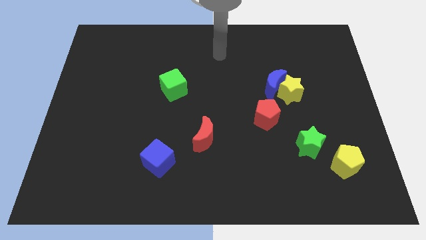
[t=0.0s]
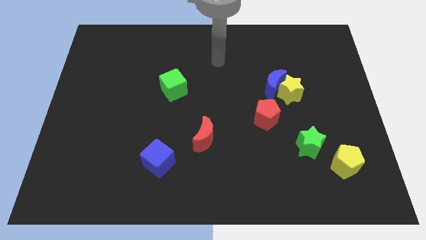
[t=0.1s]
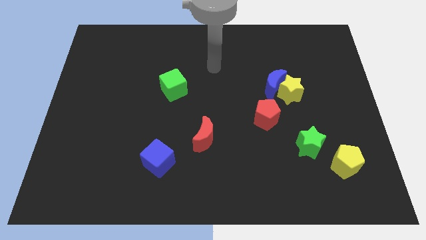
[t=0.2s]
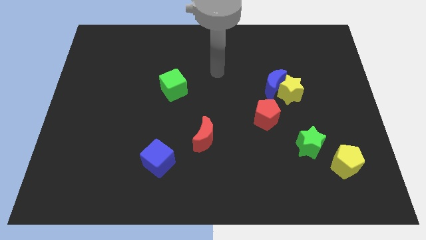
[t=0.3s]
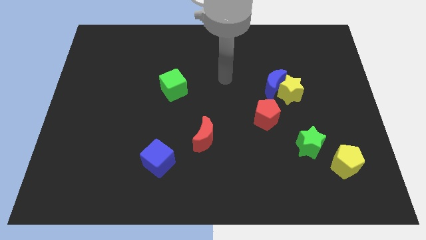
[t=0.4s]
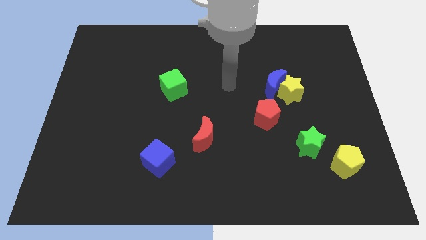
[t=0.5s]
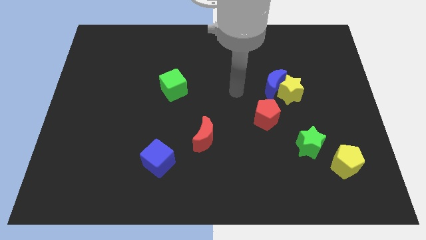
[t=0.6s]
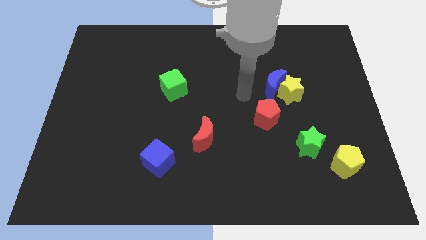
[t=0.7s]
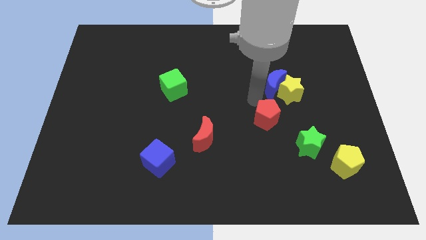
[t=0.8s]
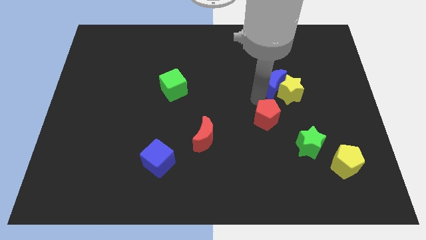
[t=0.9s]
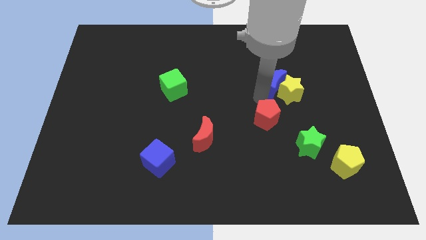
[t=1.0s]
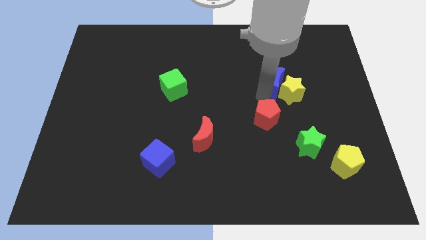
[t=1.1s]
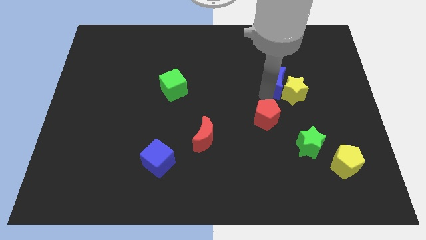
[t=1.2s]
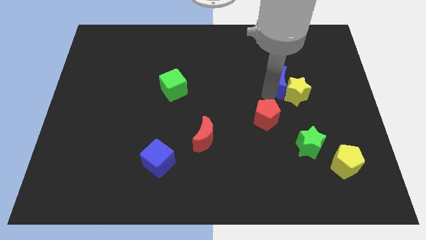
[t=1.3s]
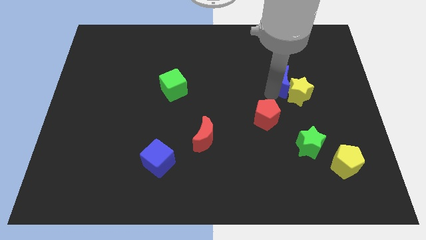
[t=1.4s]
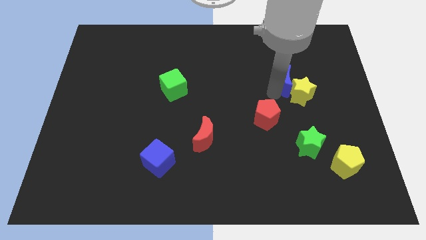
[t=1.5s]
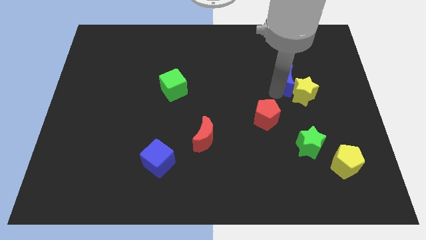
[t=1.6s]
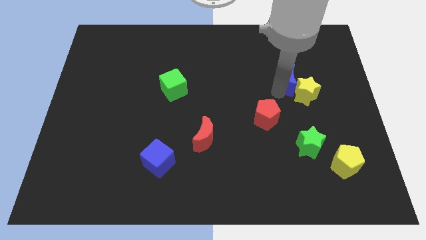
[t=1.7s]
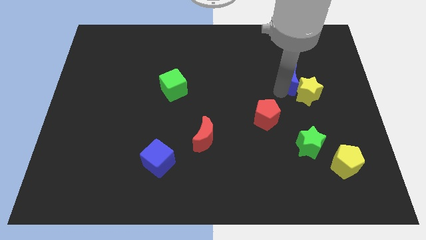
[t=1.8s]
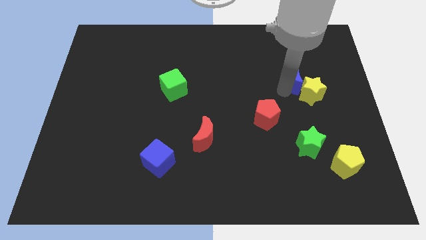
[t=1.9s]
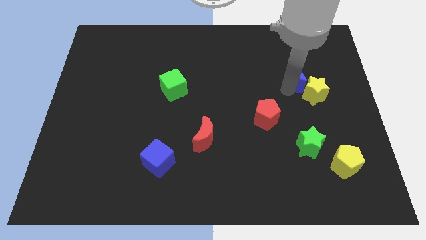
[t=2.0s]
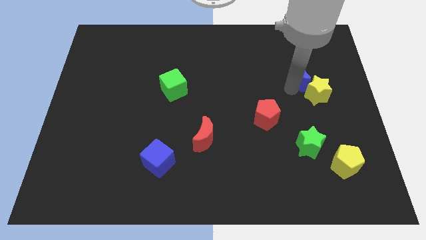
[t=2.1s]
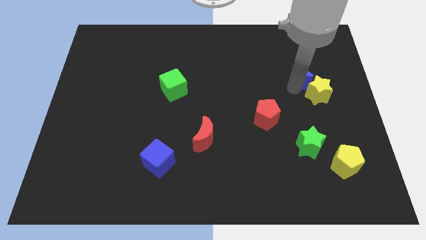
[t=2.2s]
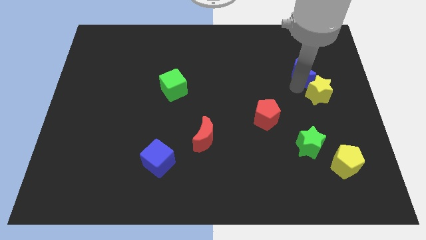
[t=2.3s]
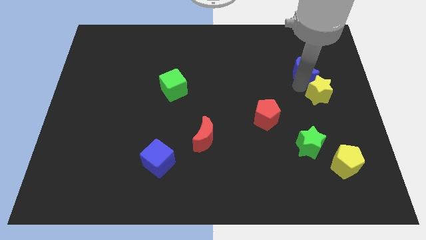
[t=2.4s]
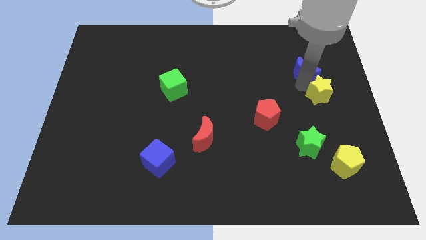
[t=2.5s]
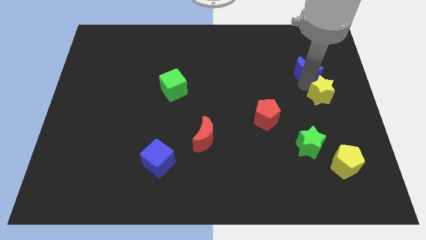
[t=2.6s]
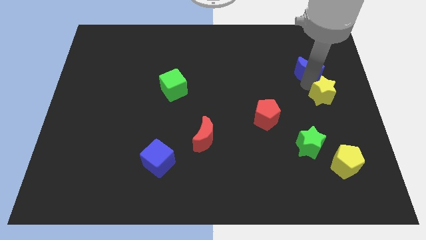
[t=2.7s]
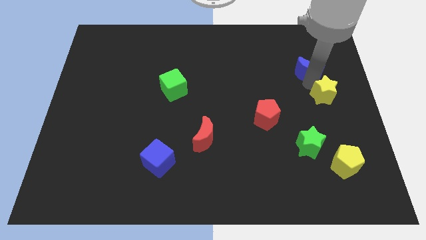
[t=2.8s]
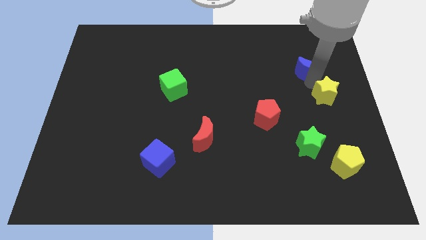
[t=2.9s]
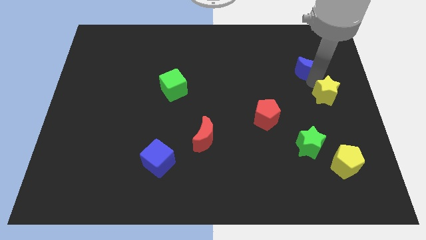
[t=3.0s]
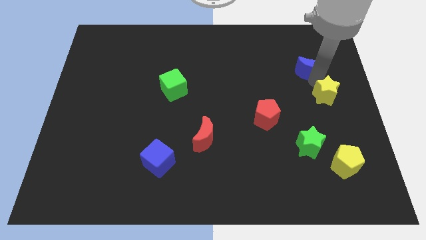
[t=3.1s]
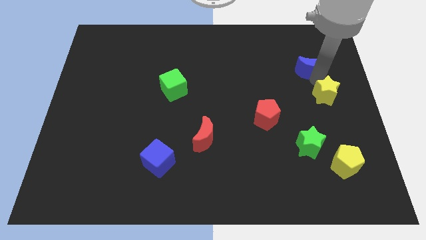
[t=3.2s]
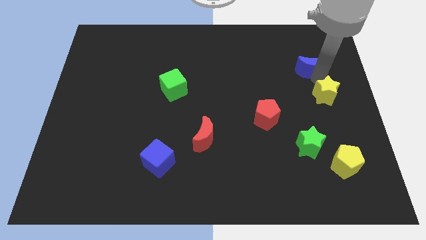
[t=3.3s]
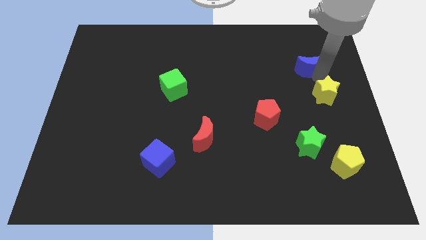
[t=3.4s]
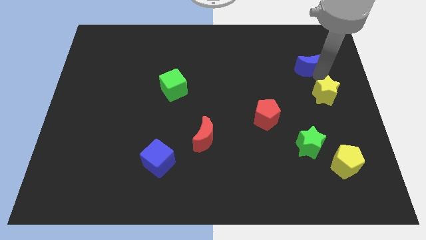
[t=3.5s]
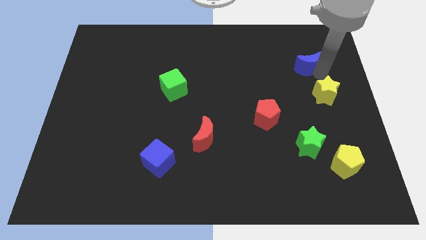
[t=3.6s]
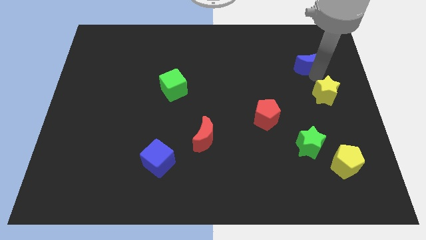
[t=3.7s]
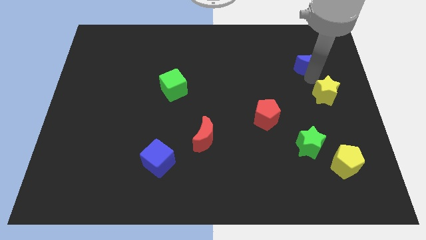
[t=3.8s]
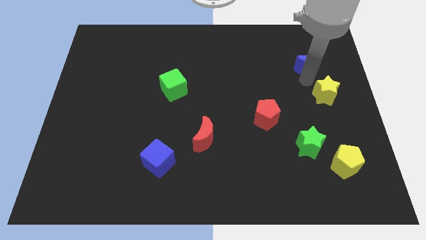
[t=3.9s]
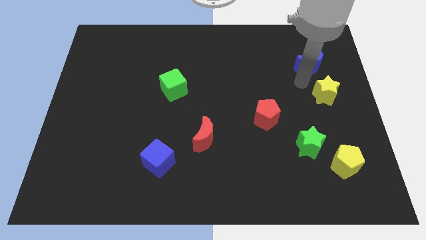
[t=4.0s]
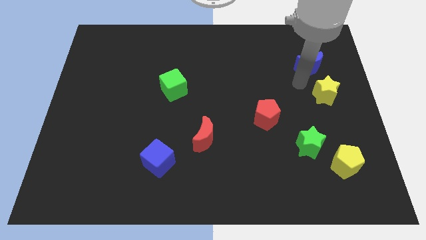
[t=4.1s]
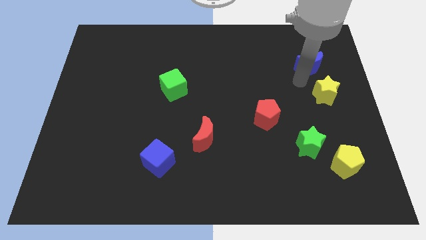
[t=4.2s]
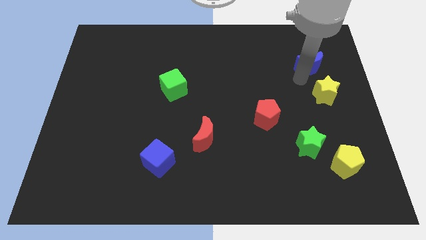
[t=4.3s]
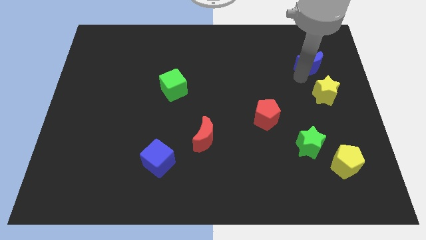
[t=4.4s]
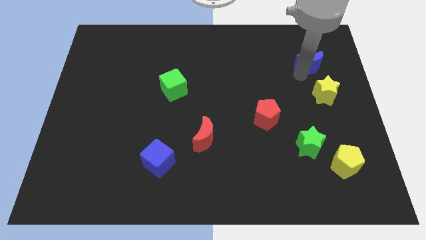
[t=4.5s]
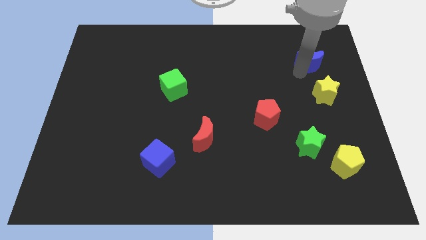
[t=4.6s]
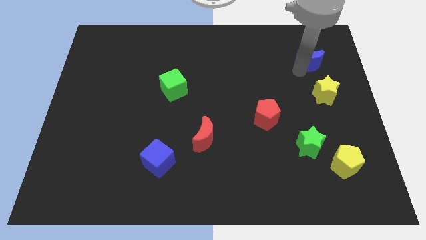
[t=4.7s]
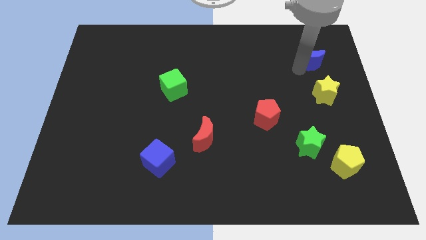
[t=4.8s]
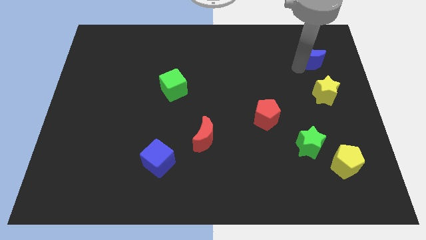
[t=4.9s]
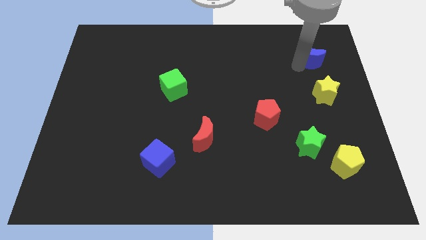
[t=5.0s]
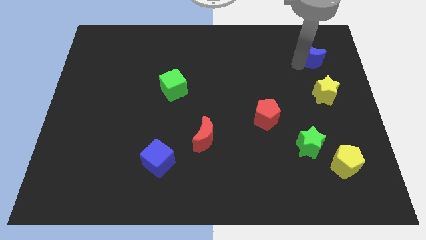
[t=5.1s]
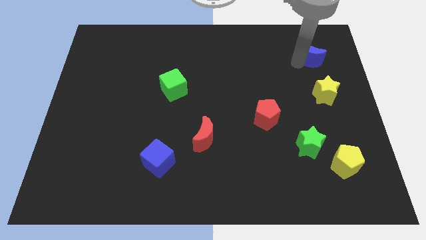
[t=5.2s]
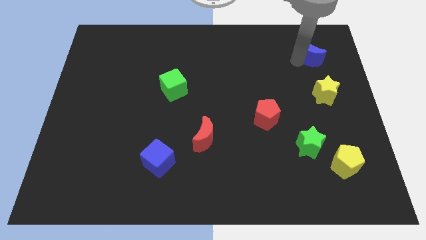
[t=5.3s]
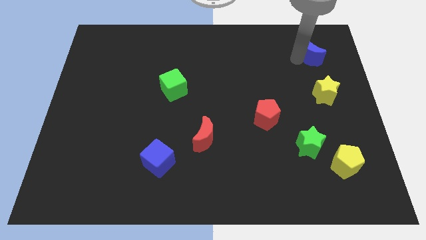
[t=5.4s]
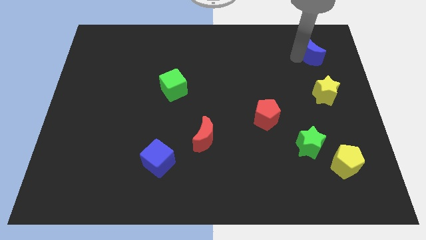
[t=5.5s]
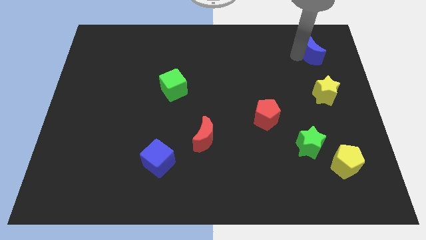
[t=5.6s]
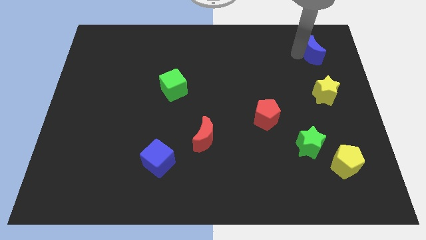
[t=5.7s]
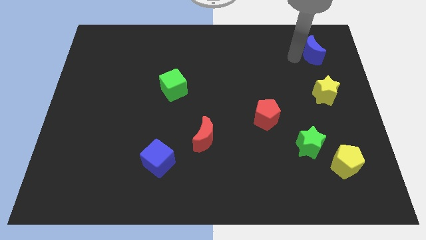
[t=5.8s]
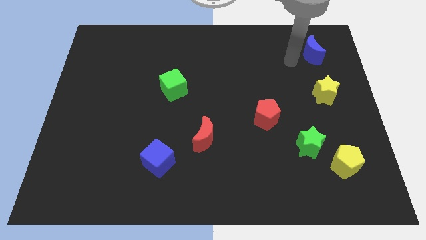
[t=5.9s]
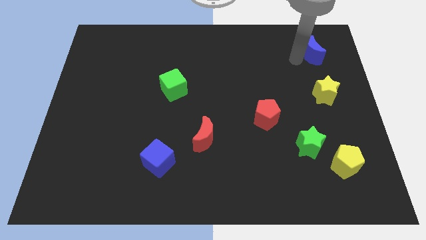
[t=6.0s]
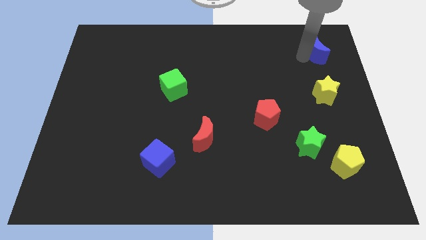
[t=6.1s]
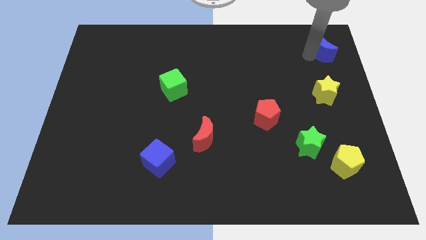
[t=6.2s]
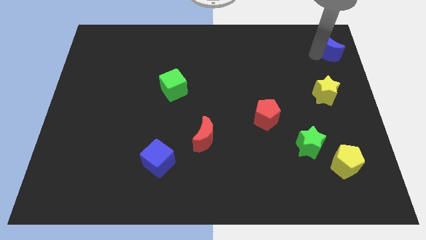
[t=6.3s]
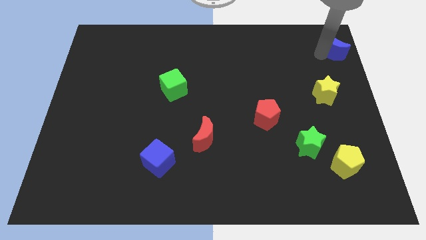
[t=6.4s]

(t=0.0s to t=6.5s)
push the blue moon to the top right

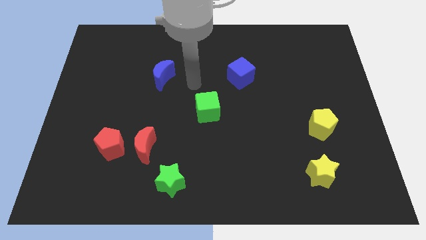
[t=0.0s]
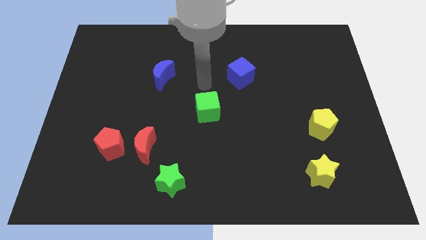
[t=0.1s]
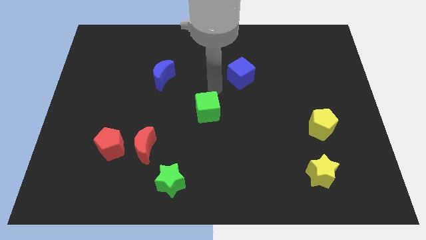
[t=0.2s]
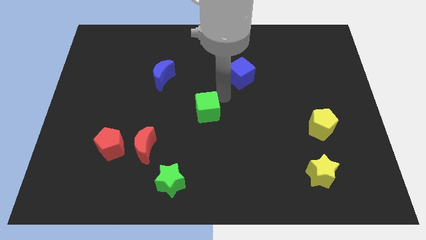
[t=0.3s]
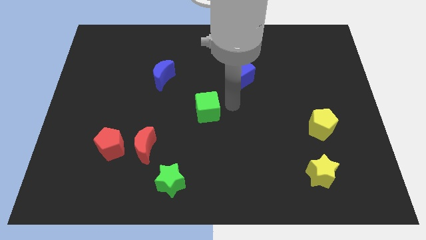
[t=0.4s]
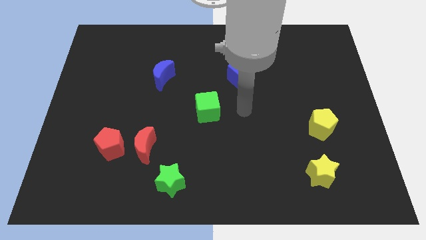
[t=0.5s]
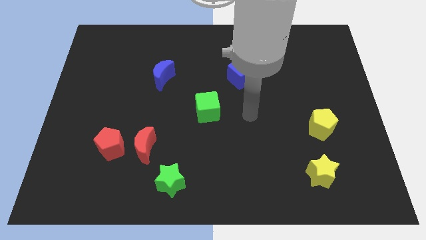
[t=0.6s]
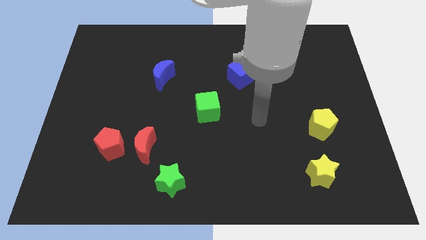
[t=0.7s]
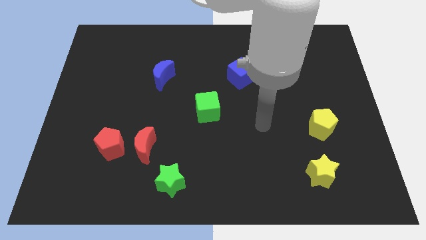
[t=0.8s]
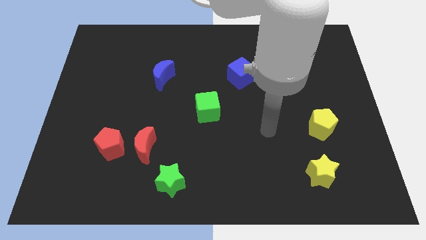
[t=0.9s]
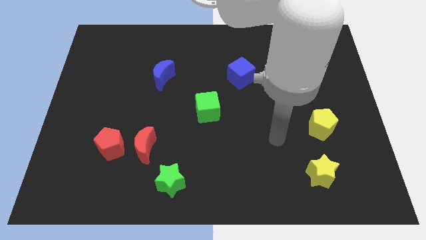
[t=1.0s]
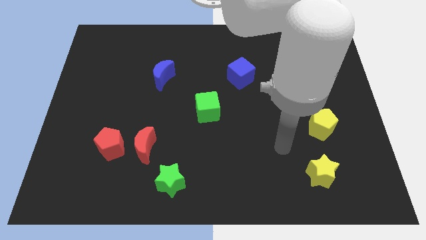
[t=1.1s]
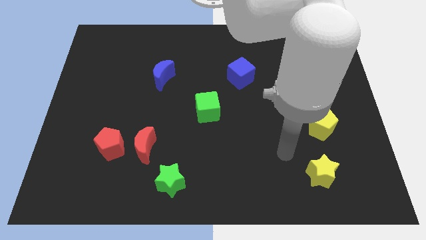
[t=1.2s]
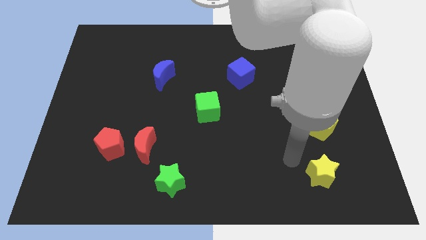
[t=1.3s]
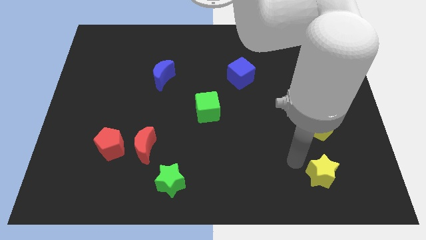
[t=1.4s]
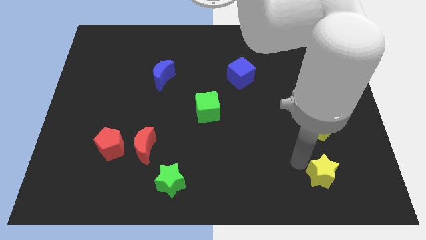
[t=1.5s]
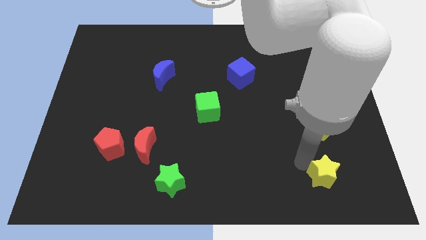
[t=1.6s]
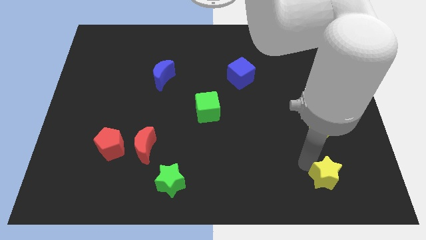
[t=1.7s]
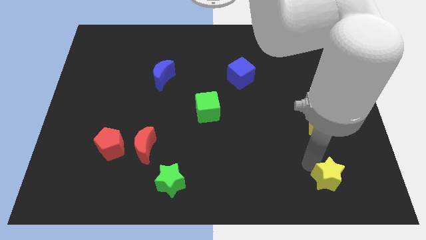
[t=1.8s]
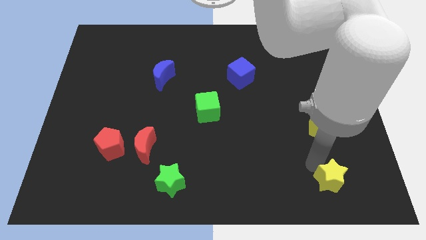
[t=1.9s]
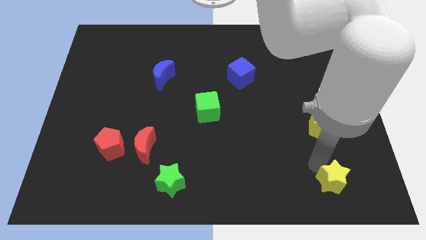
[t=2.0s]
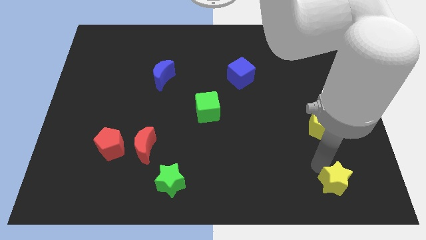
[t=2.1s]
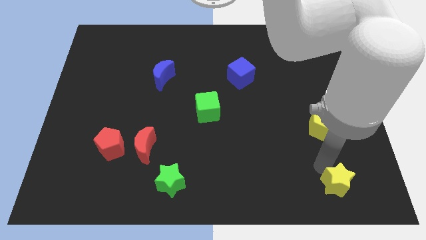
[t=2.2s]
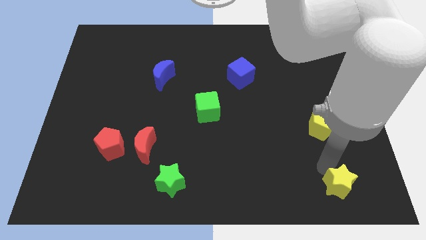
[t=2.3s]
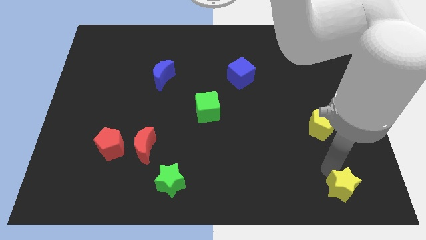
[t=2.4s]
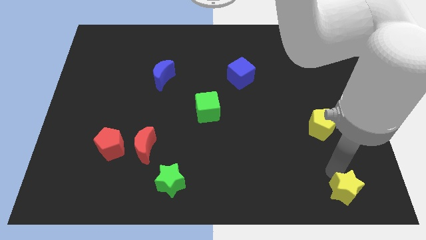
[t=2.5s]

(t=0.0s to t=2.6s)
put the yellow star to the bottom right of the board
